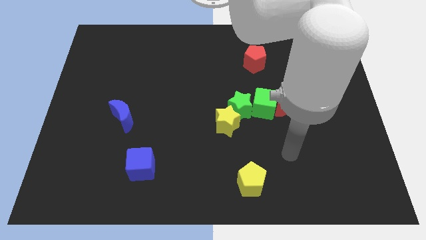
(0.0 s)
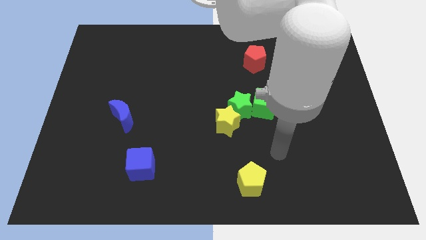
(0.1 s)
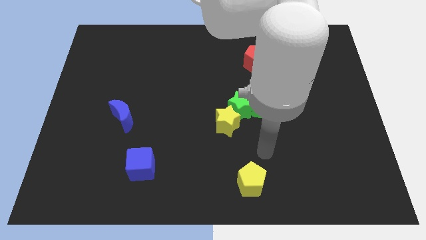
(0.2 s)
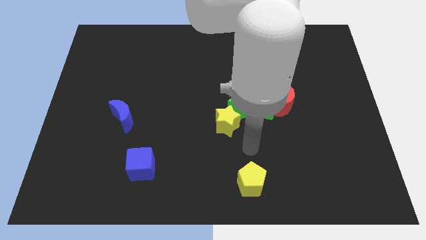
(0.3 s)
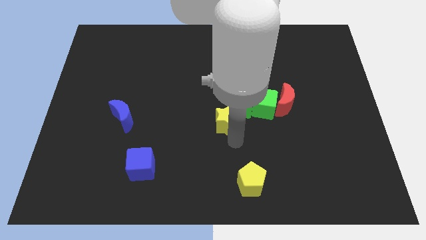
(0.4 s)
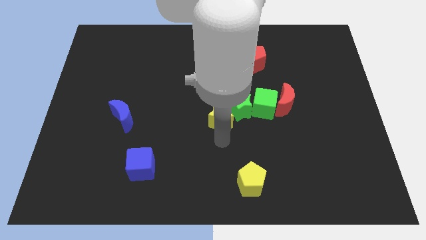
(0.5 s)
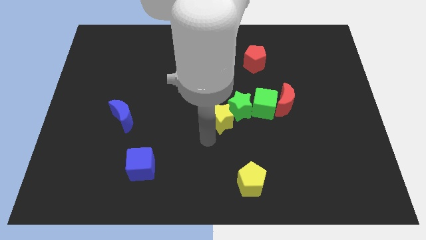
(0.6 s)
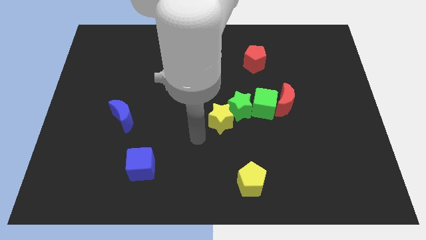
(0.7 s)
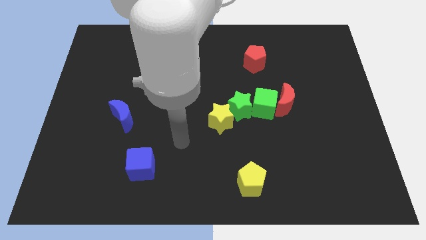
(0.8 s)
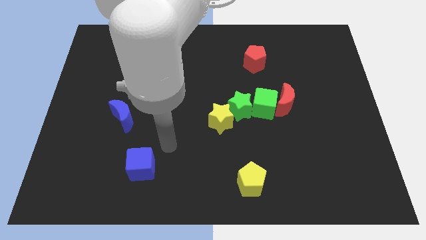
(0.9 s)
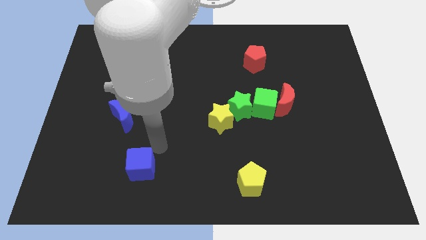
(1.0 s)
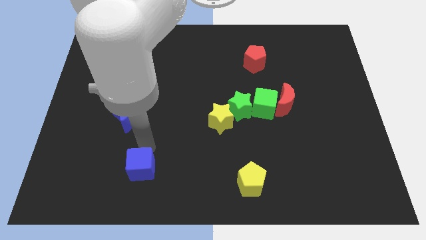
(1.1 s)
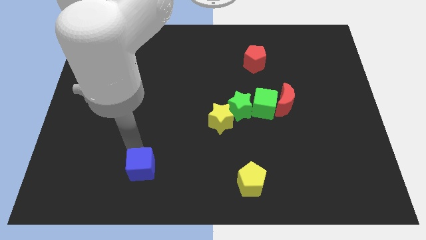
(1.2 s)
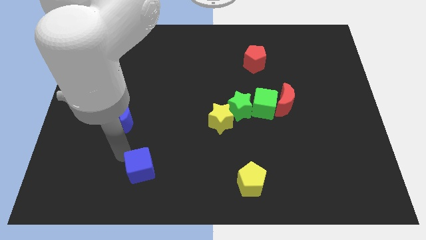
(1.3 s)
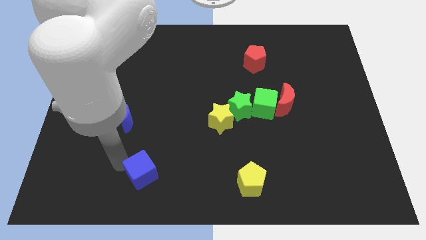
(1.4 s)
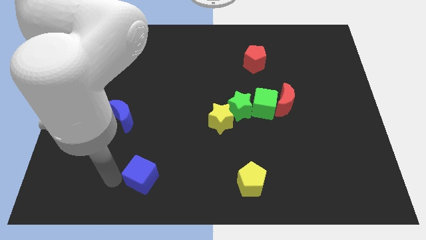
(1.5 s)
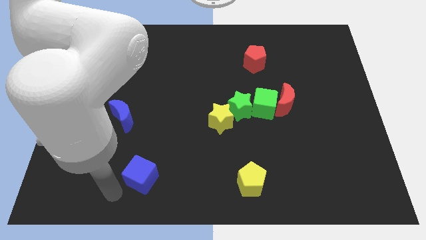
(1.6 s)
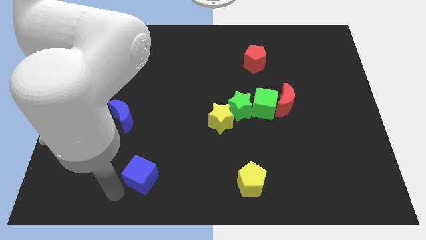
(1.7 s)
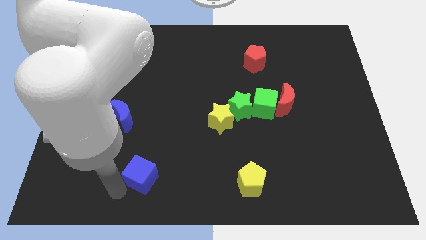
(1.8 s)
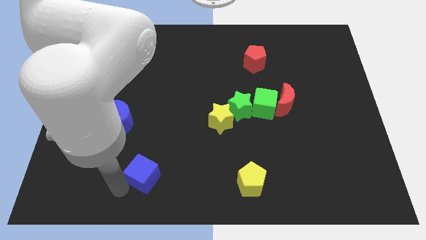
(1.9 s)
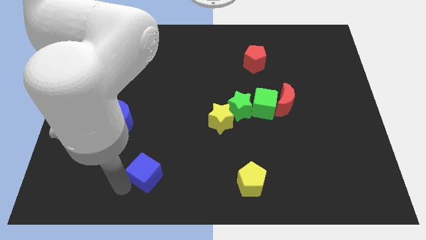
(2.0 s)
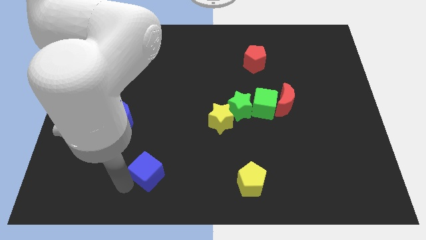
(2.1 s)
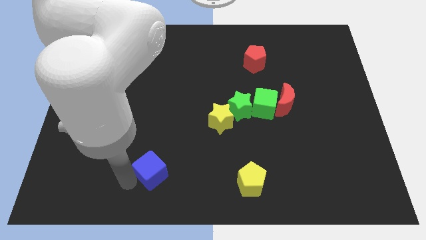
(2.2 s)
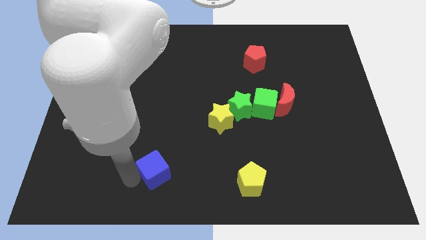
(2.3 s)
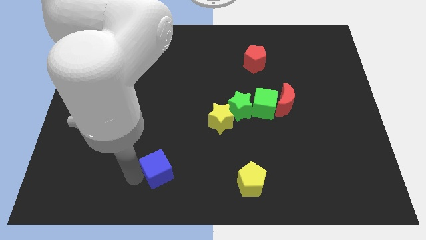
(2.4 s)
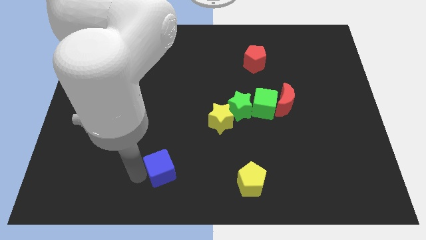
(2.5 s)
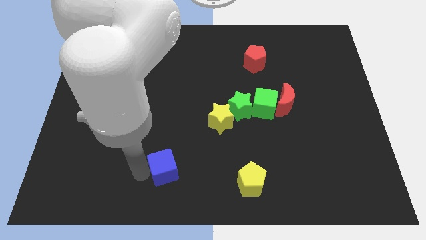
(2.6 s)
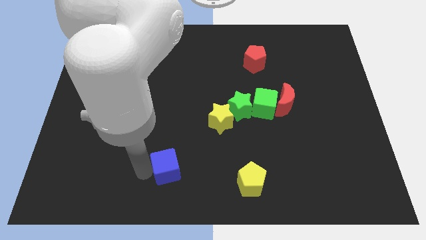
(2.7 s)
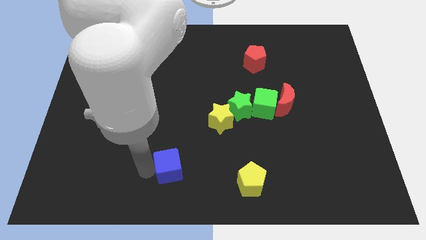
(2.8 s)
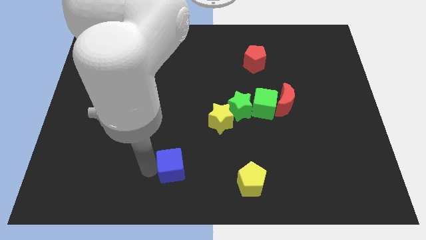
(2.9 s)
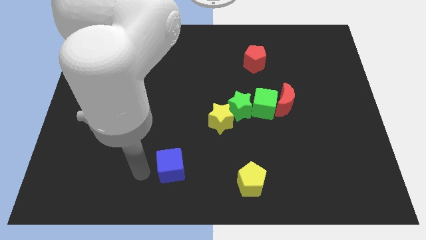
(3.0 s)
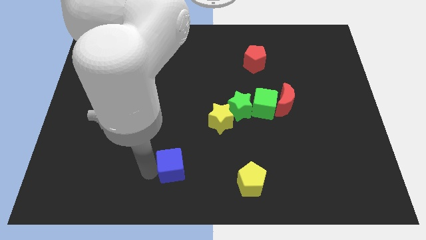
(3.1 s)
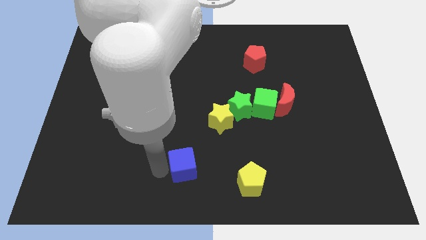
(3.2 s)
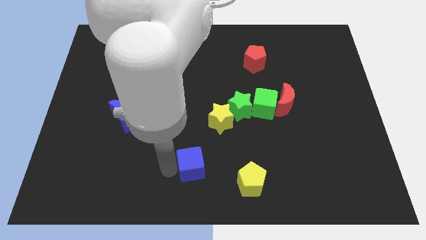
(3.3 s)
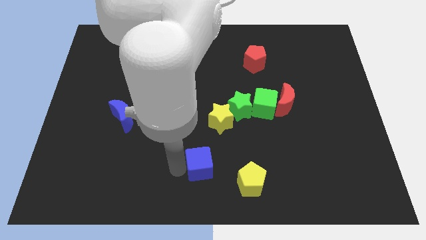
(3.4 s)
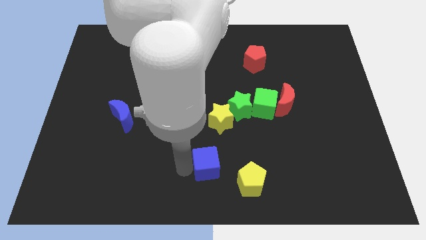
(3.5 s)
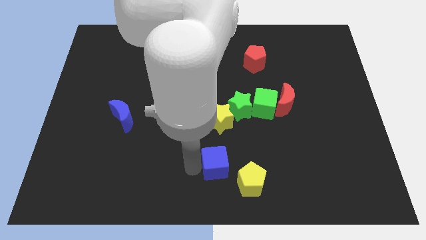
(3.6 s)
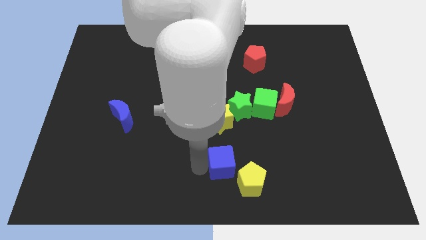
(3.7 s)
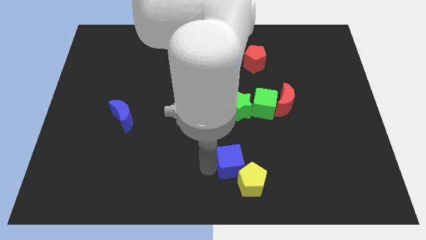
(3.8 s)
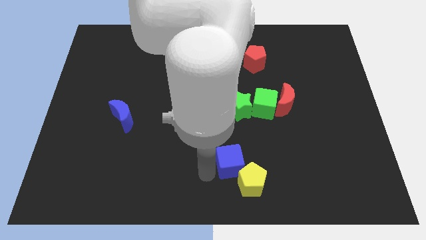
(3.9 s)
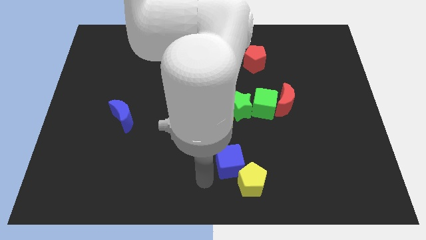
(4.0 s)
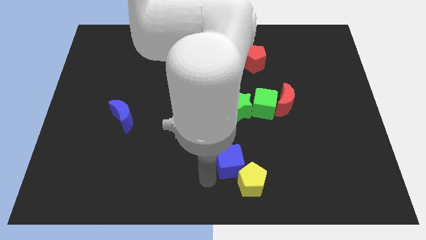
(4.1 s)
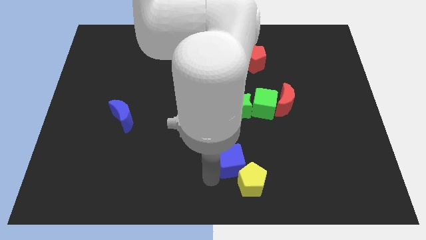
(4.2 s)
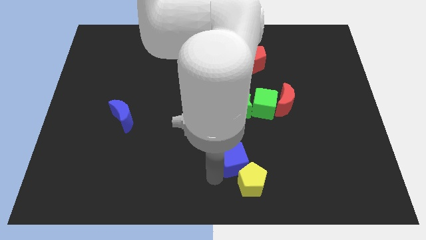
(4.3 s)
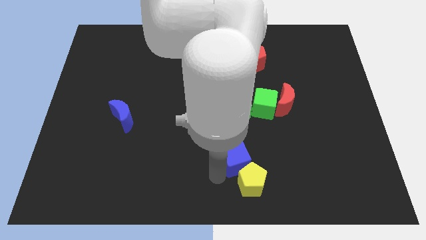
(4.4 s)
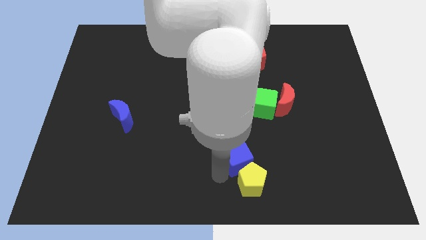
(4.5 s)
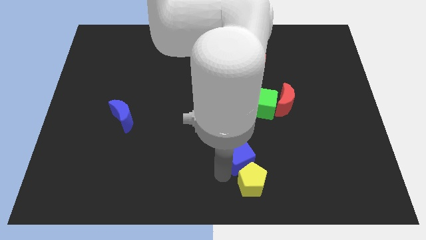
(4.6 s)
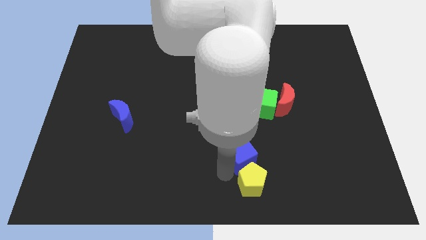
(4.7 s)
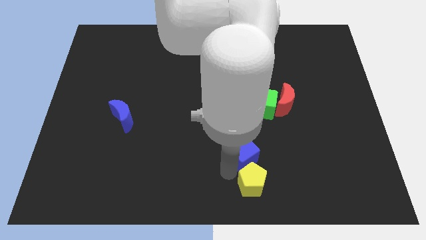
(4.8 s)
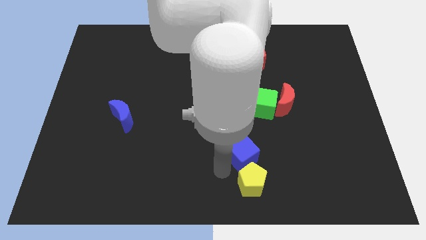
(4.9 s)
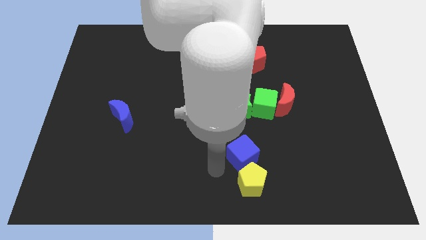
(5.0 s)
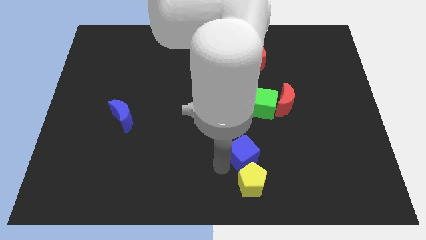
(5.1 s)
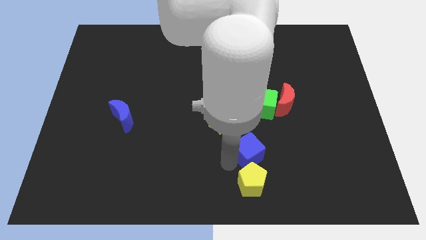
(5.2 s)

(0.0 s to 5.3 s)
put the blue cube to the bottom of the green cube

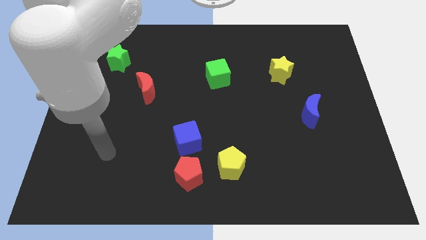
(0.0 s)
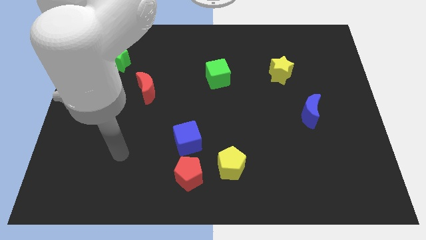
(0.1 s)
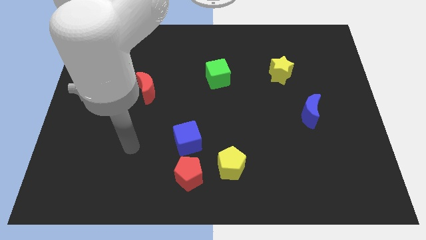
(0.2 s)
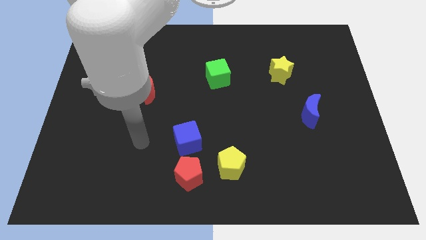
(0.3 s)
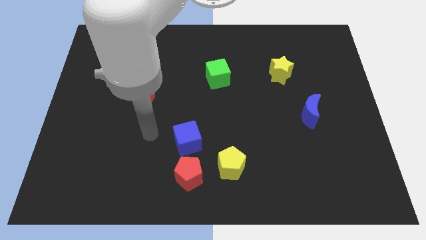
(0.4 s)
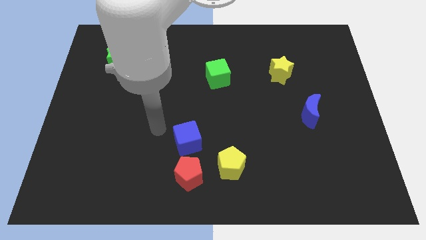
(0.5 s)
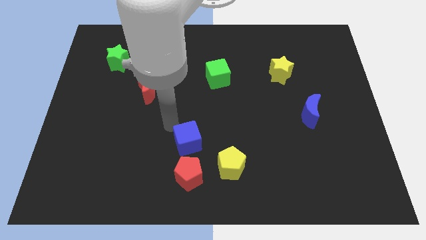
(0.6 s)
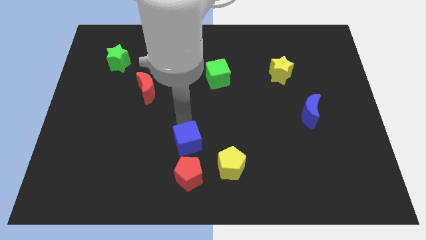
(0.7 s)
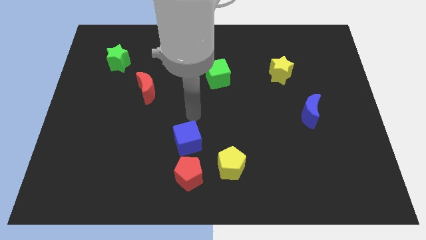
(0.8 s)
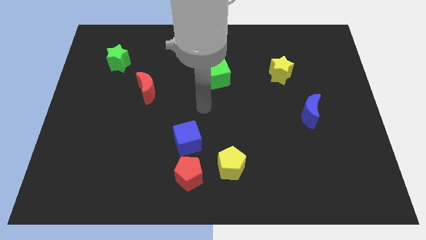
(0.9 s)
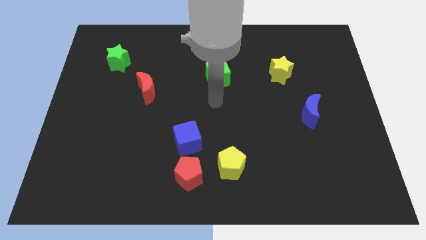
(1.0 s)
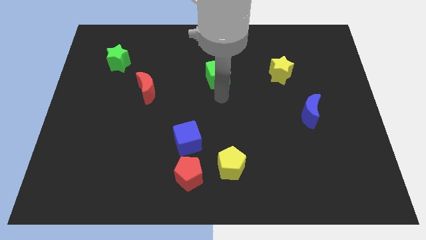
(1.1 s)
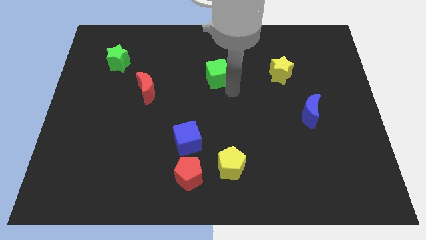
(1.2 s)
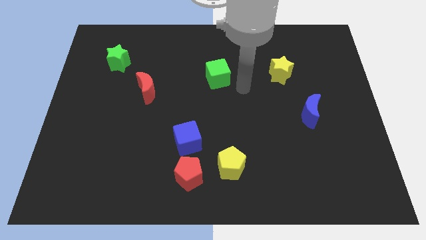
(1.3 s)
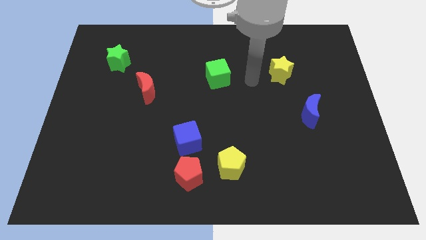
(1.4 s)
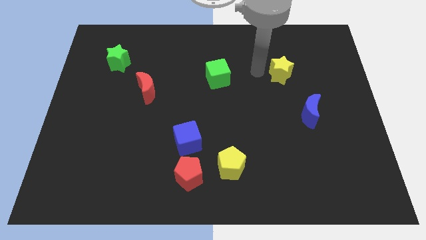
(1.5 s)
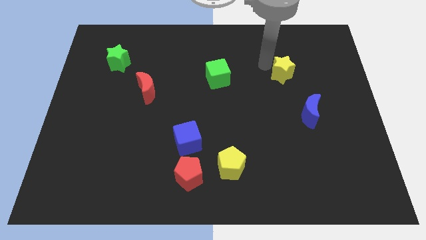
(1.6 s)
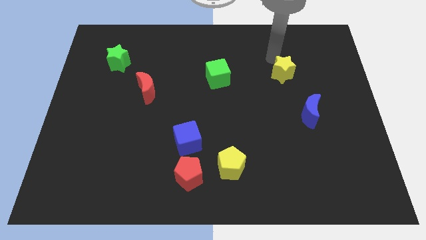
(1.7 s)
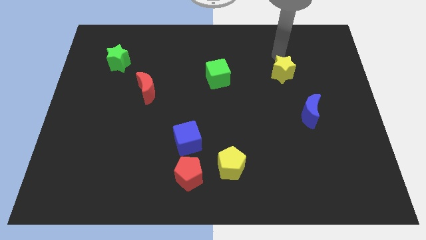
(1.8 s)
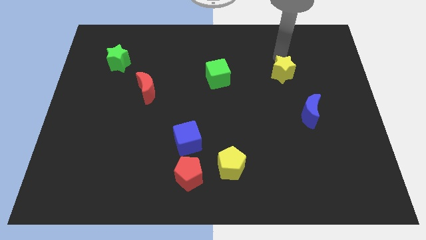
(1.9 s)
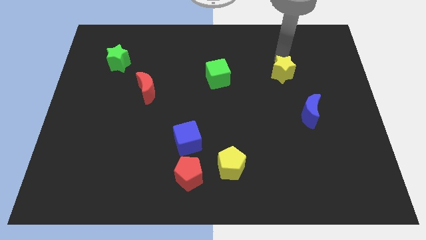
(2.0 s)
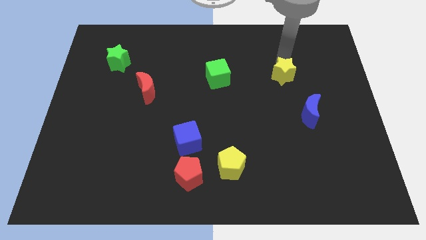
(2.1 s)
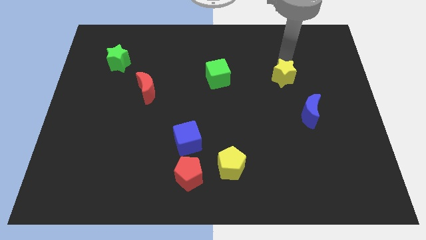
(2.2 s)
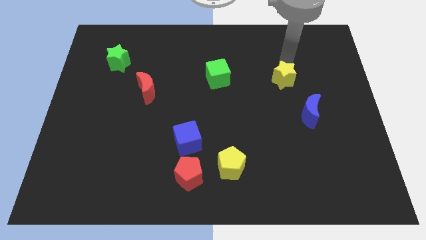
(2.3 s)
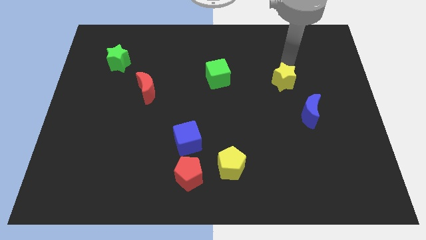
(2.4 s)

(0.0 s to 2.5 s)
push the yellow star to the top left side of the blue moon
